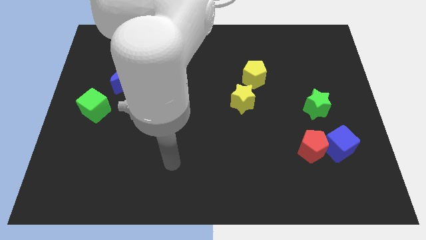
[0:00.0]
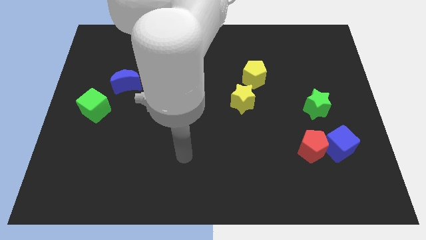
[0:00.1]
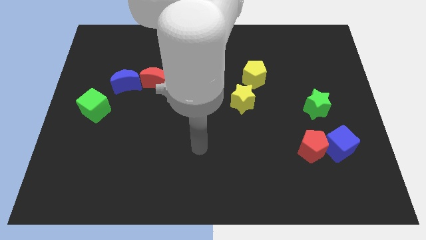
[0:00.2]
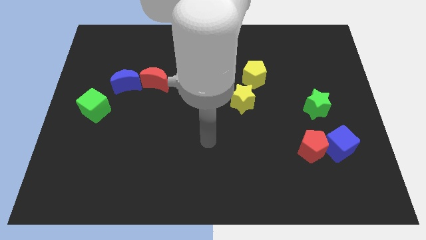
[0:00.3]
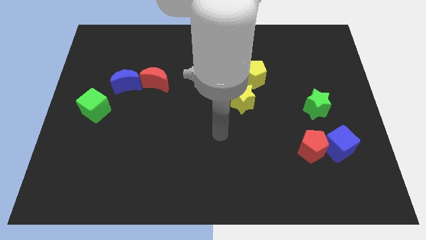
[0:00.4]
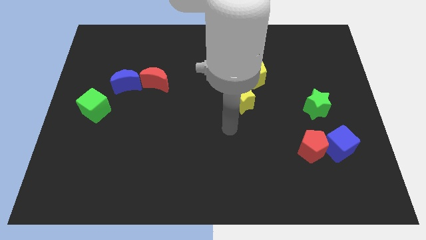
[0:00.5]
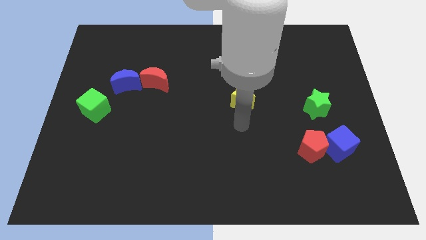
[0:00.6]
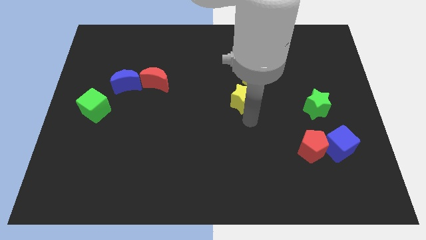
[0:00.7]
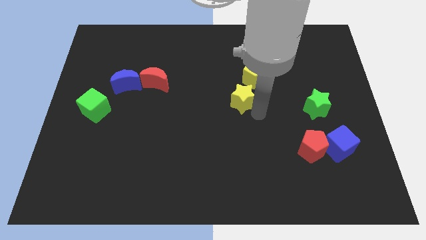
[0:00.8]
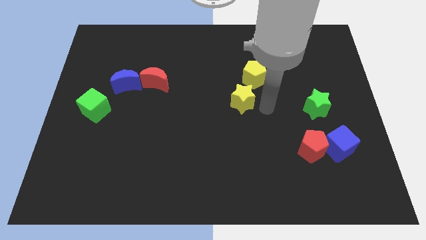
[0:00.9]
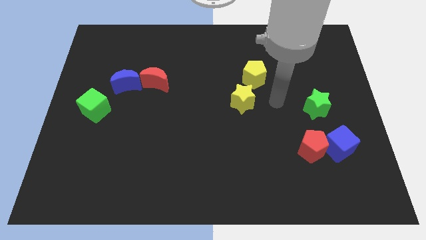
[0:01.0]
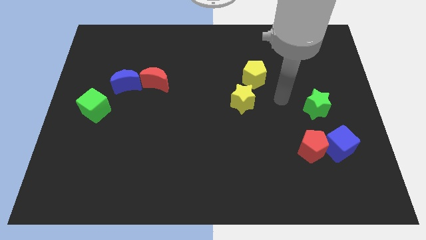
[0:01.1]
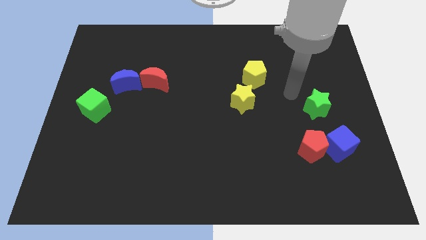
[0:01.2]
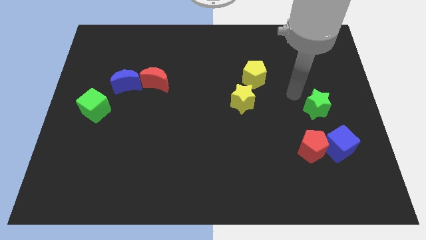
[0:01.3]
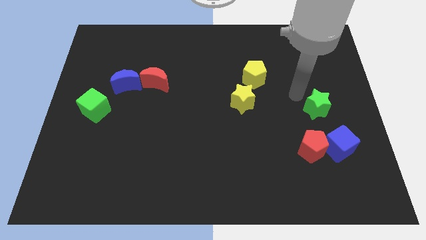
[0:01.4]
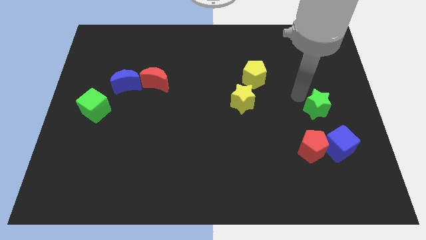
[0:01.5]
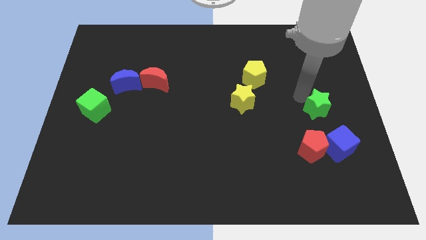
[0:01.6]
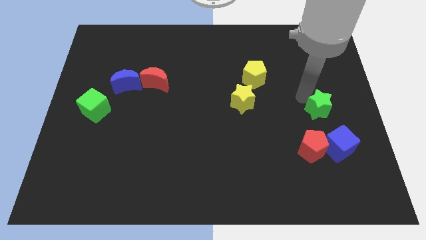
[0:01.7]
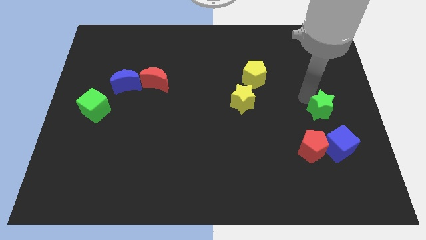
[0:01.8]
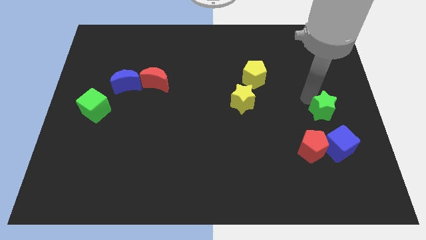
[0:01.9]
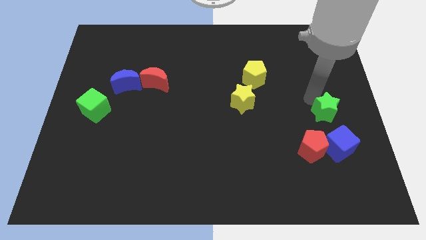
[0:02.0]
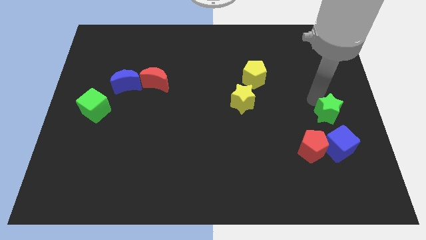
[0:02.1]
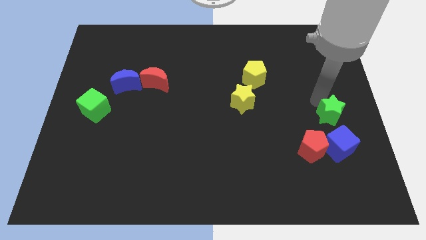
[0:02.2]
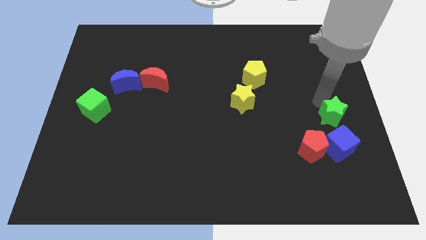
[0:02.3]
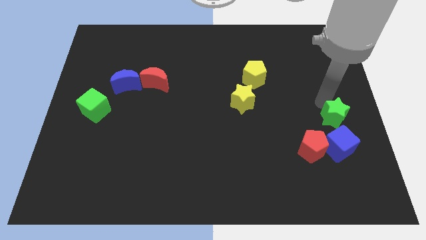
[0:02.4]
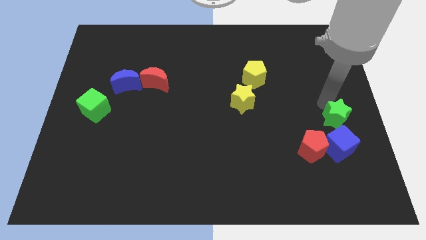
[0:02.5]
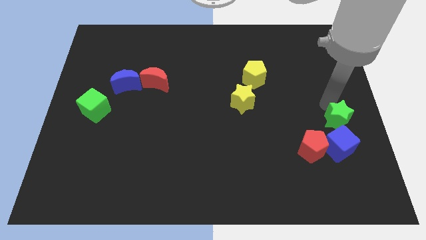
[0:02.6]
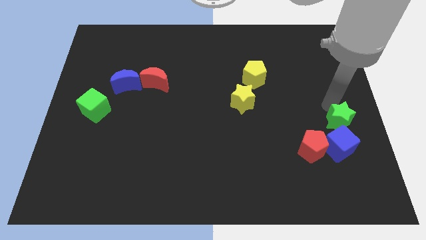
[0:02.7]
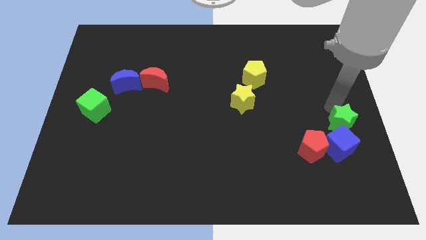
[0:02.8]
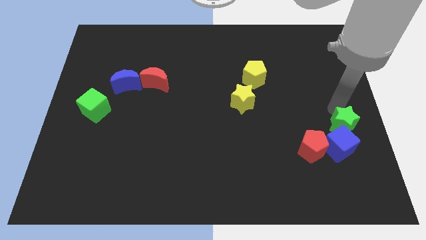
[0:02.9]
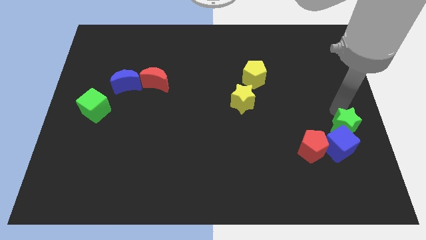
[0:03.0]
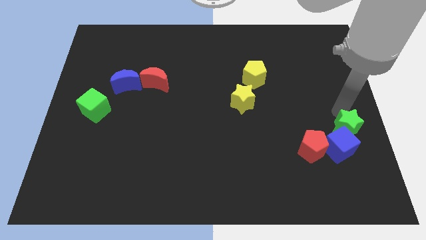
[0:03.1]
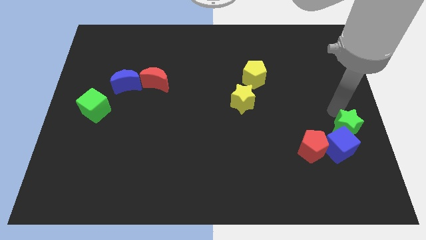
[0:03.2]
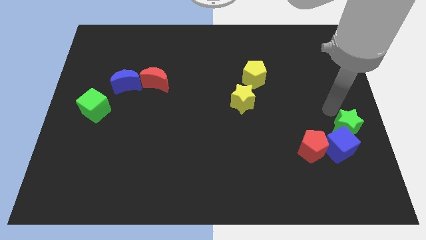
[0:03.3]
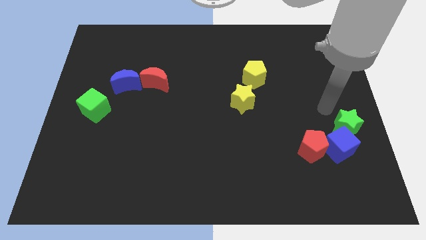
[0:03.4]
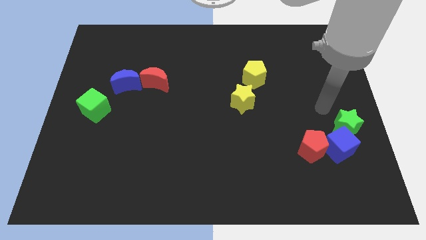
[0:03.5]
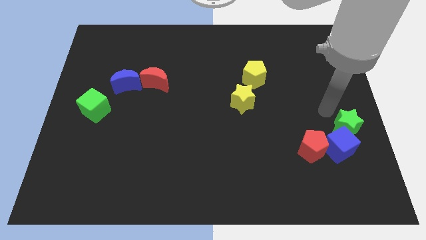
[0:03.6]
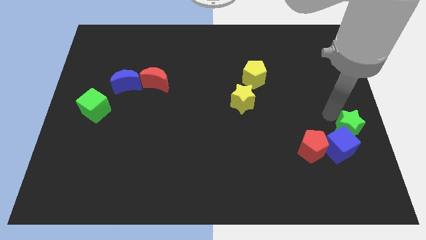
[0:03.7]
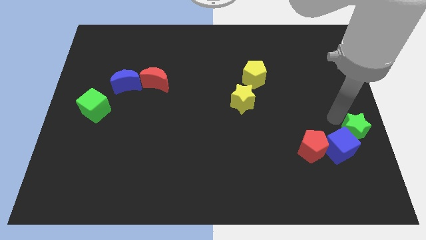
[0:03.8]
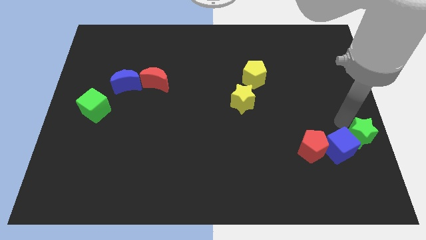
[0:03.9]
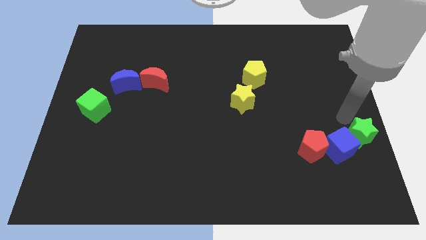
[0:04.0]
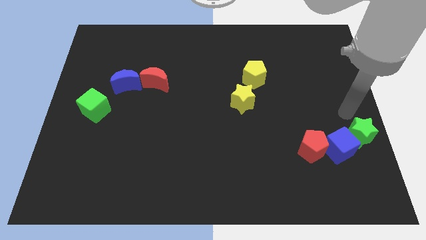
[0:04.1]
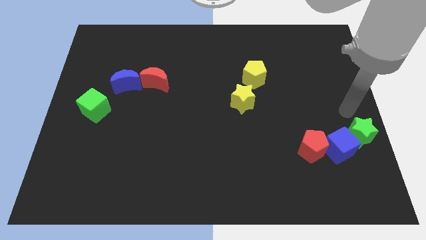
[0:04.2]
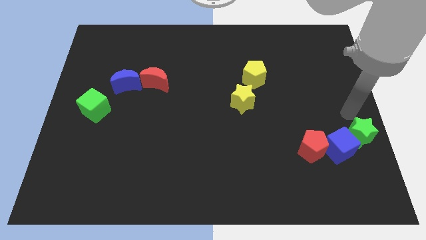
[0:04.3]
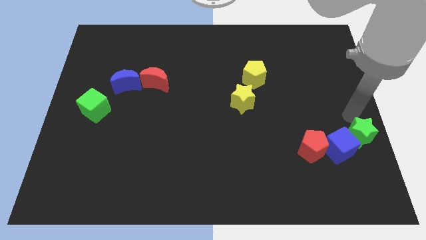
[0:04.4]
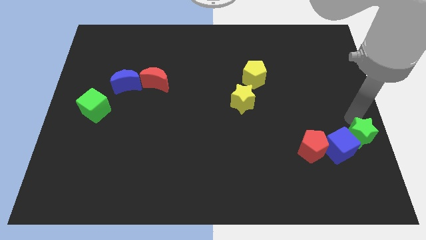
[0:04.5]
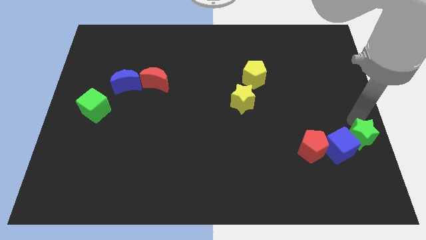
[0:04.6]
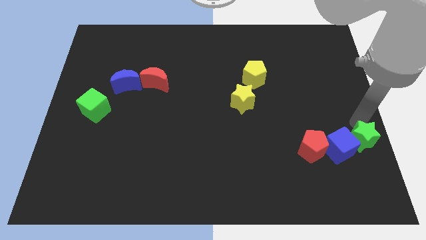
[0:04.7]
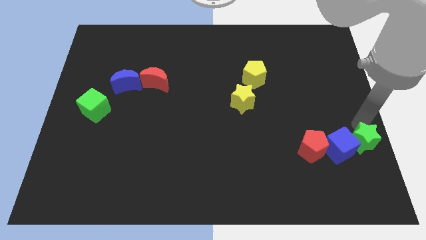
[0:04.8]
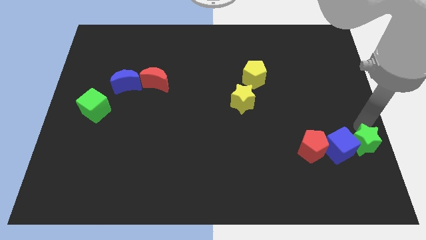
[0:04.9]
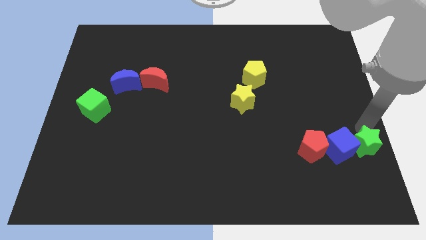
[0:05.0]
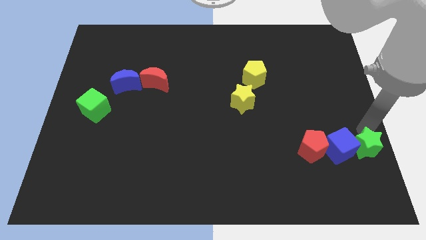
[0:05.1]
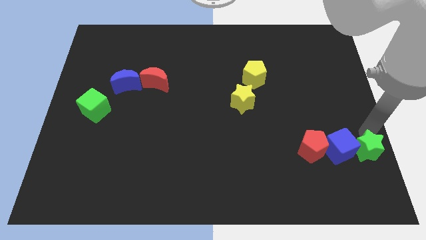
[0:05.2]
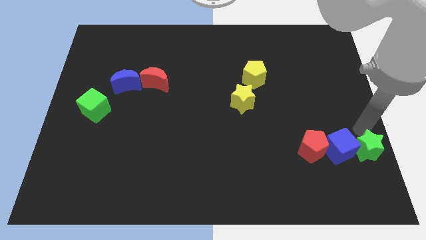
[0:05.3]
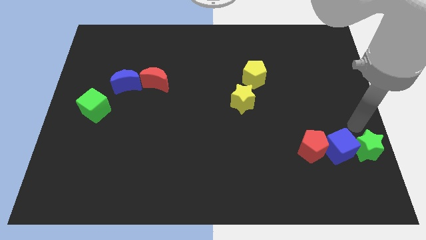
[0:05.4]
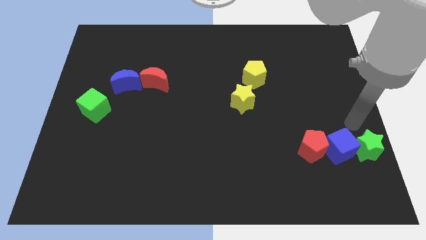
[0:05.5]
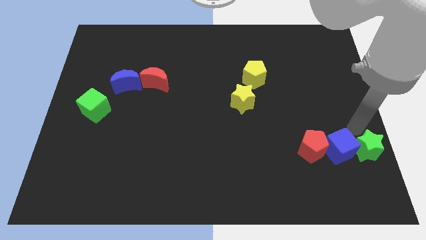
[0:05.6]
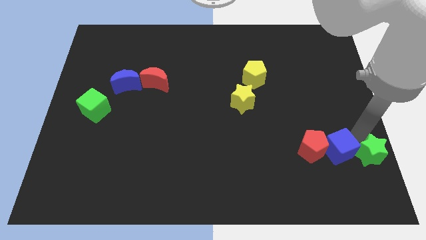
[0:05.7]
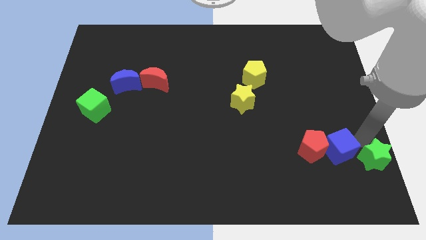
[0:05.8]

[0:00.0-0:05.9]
move the green star to the lower right corner

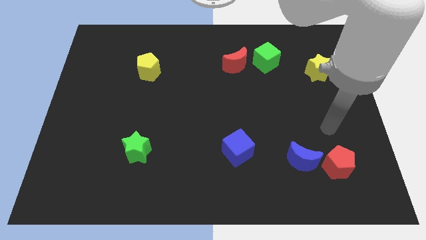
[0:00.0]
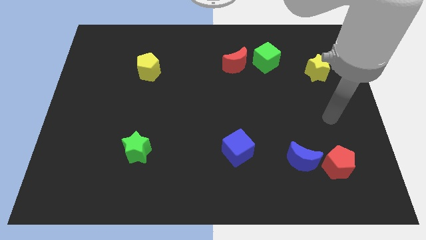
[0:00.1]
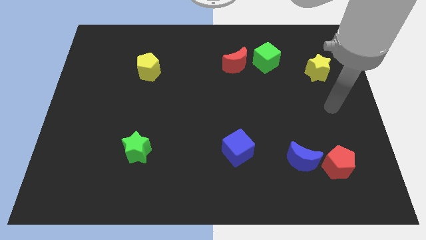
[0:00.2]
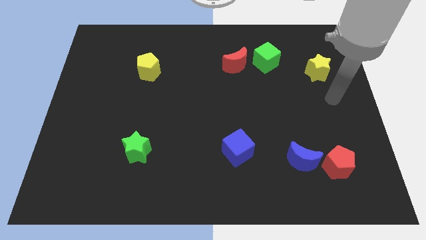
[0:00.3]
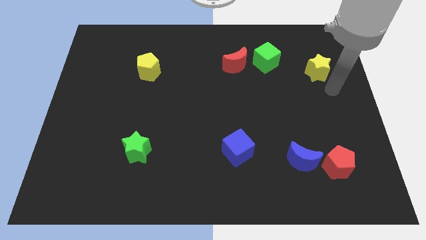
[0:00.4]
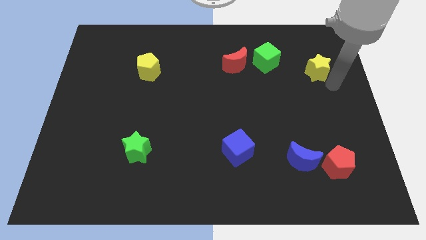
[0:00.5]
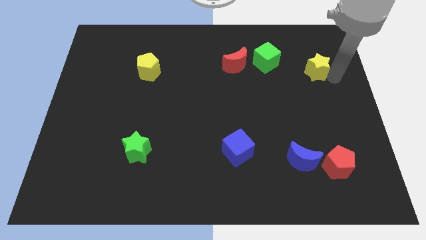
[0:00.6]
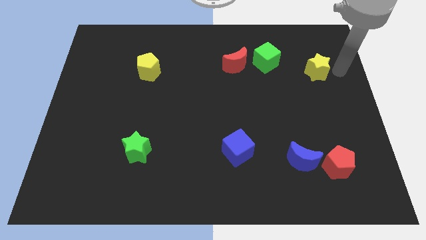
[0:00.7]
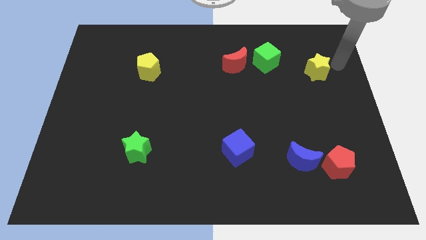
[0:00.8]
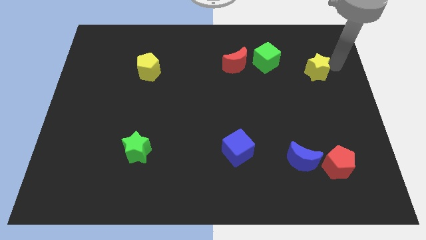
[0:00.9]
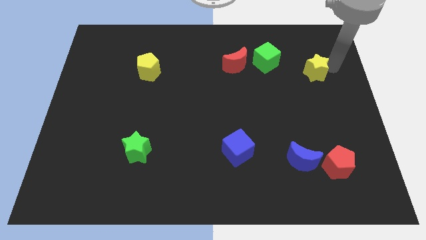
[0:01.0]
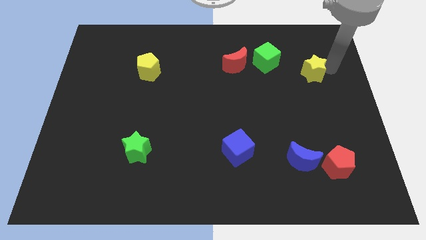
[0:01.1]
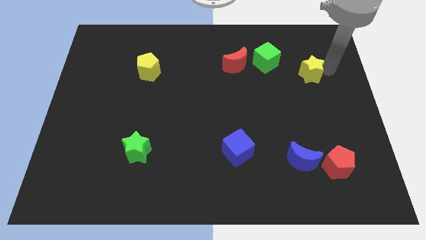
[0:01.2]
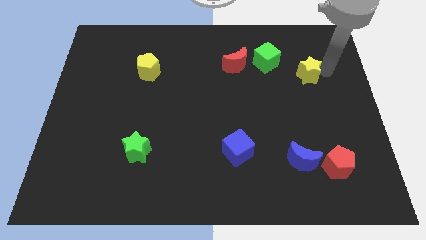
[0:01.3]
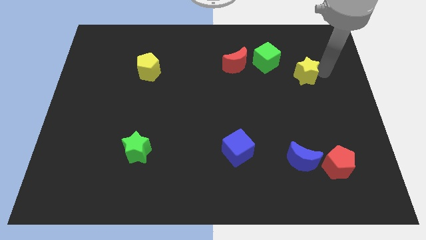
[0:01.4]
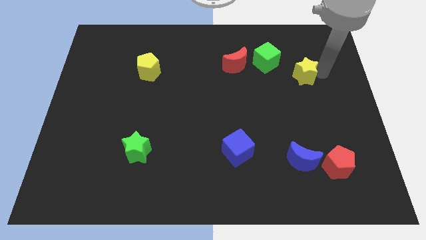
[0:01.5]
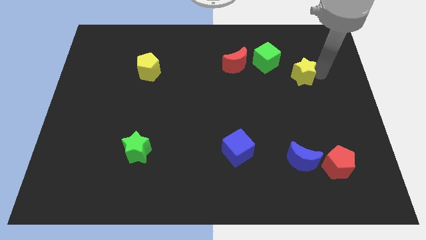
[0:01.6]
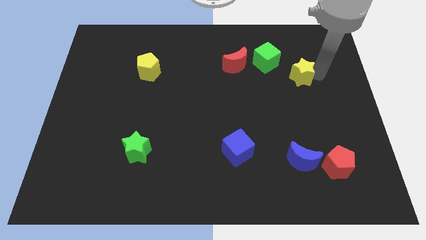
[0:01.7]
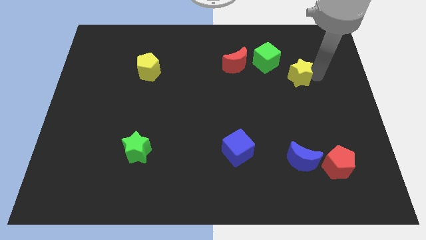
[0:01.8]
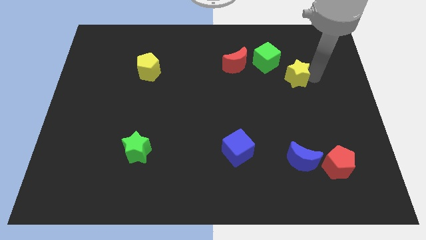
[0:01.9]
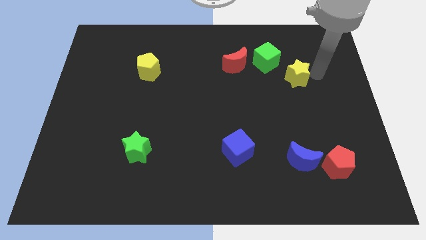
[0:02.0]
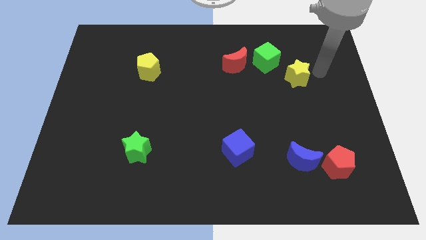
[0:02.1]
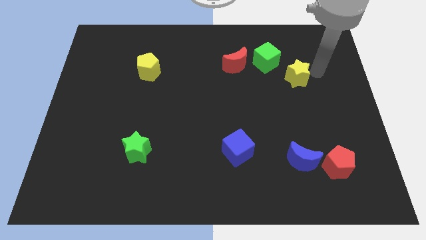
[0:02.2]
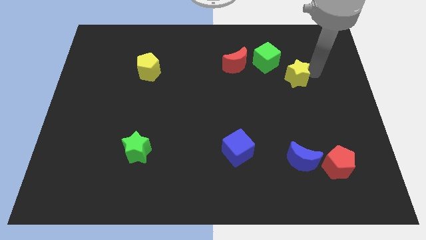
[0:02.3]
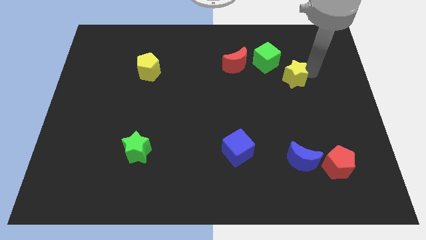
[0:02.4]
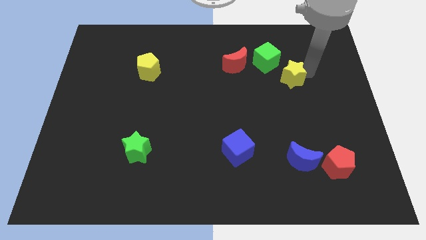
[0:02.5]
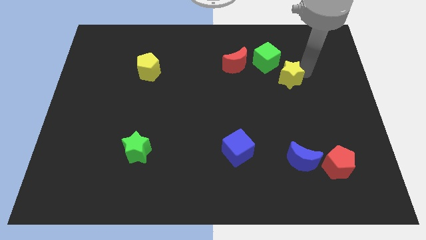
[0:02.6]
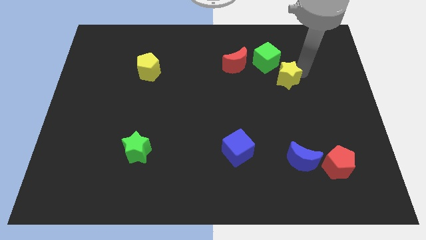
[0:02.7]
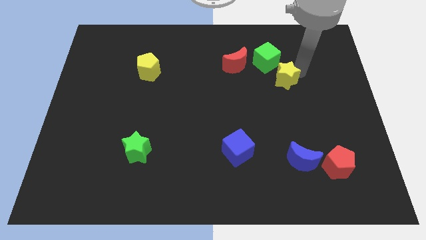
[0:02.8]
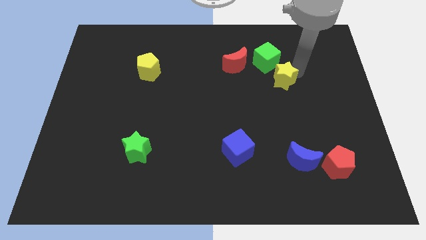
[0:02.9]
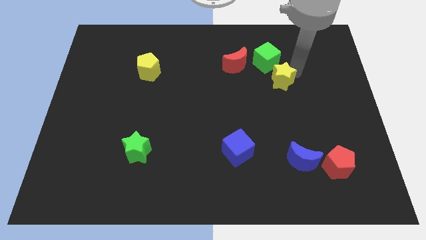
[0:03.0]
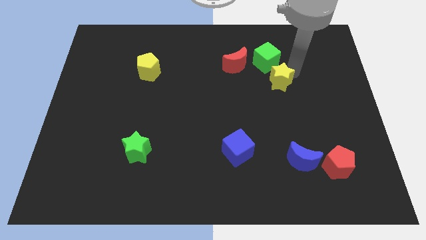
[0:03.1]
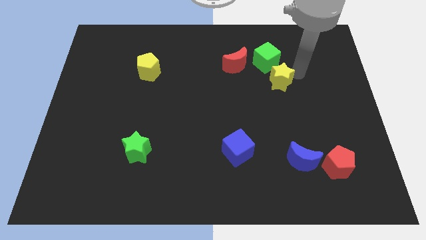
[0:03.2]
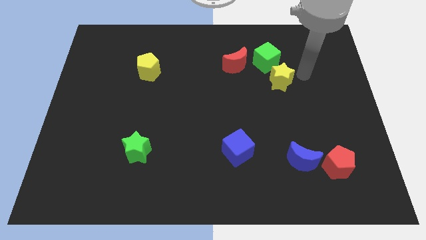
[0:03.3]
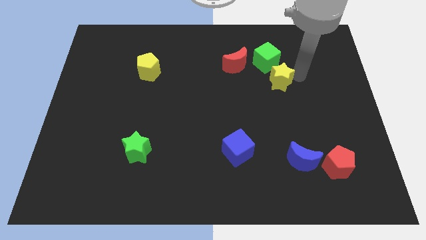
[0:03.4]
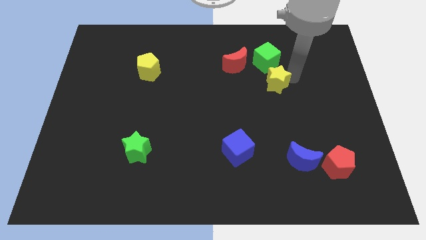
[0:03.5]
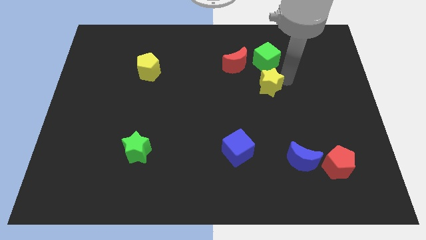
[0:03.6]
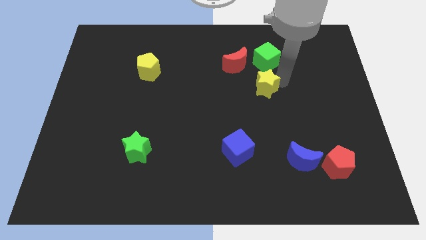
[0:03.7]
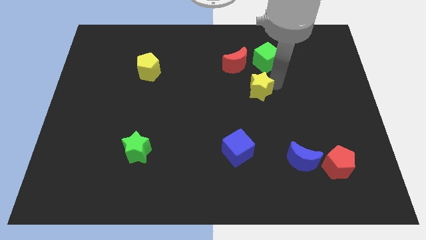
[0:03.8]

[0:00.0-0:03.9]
push the yellow star to the middle
